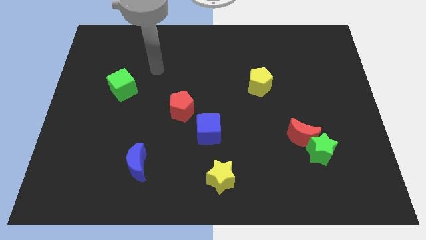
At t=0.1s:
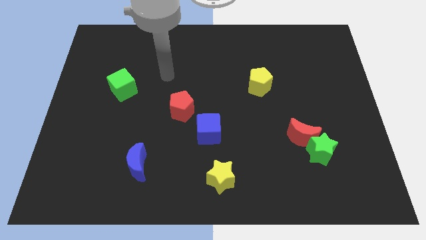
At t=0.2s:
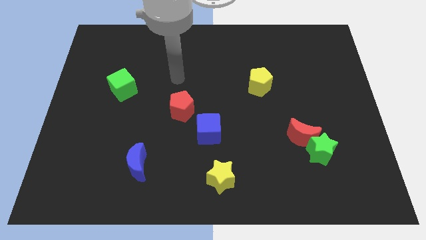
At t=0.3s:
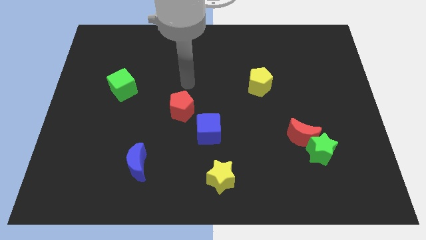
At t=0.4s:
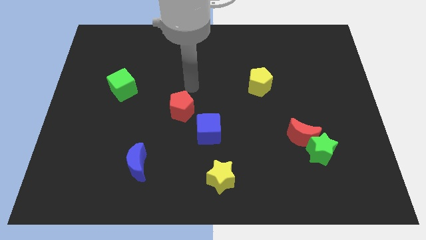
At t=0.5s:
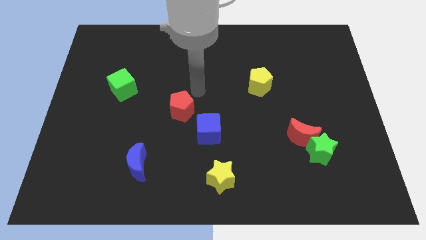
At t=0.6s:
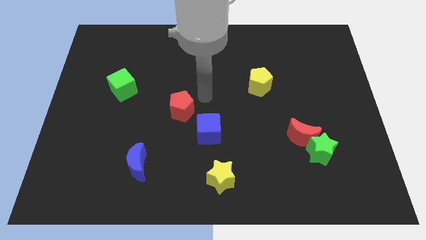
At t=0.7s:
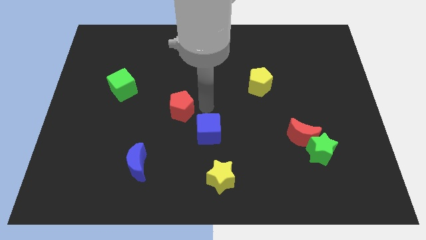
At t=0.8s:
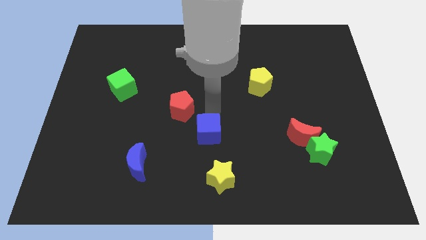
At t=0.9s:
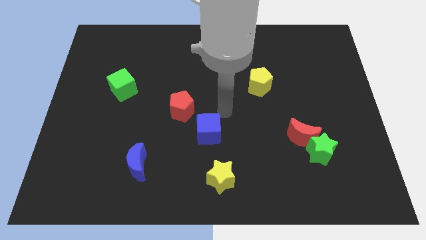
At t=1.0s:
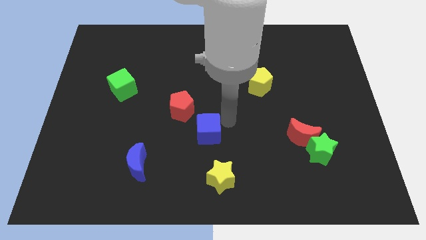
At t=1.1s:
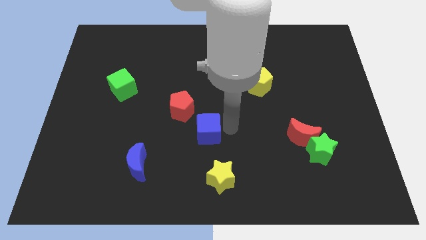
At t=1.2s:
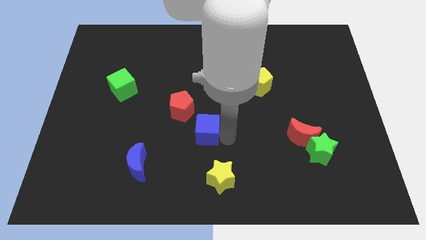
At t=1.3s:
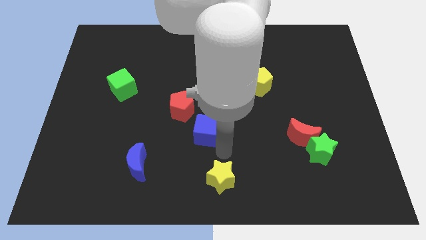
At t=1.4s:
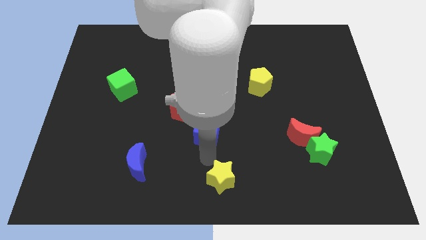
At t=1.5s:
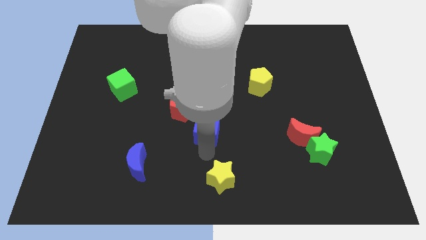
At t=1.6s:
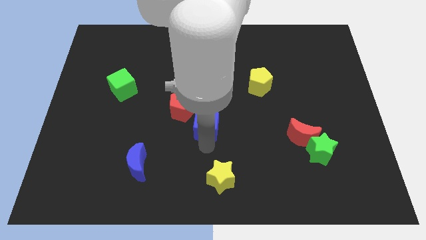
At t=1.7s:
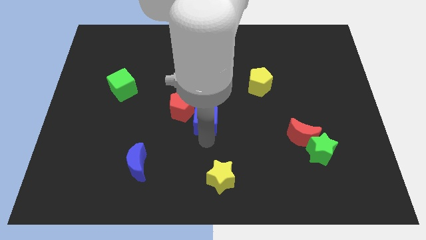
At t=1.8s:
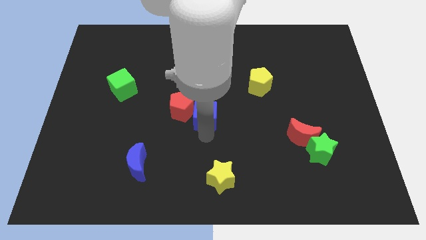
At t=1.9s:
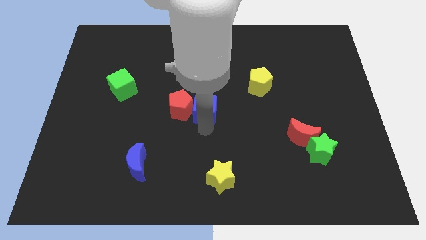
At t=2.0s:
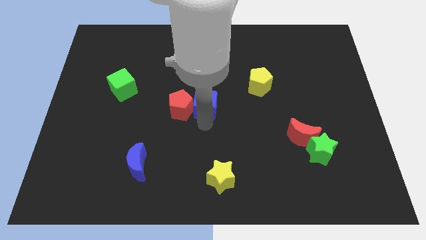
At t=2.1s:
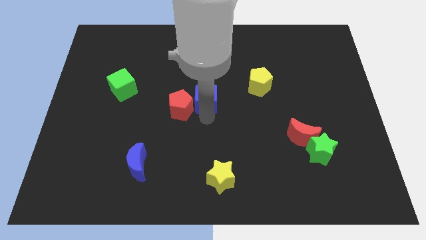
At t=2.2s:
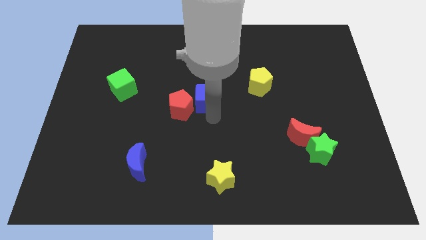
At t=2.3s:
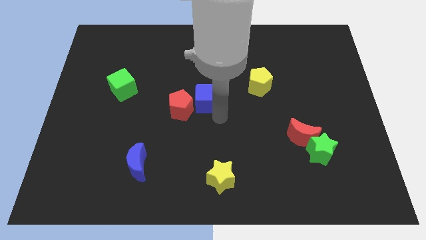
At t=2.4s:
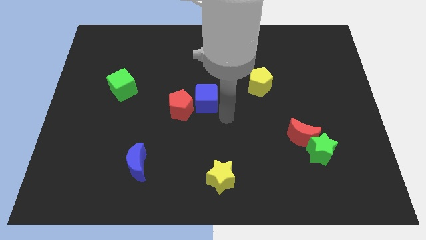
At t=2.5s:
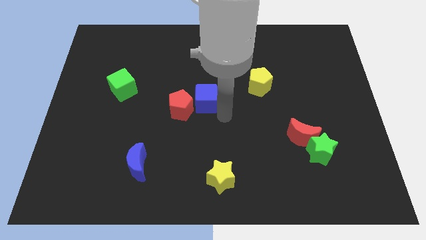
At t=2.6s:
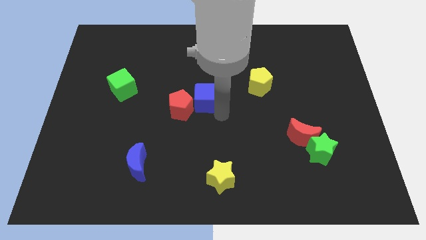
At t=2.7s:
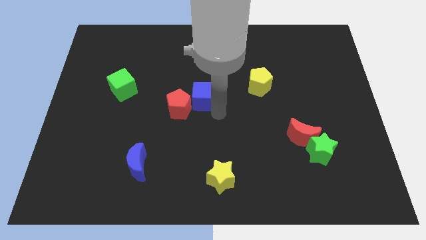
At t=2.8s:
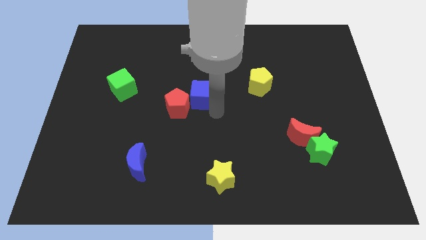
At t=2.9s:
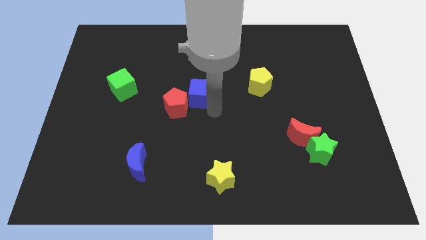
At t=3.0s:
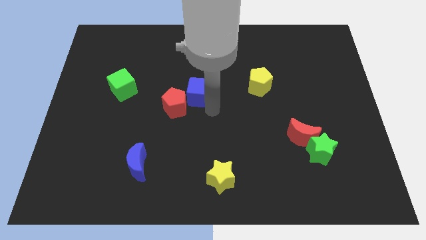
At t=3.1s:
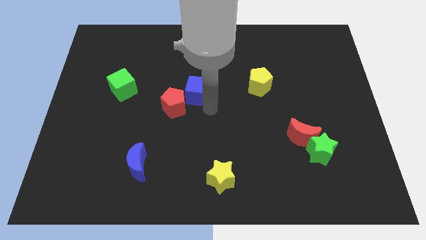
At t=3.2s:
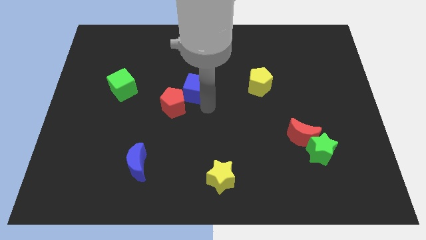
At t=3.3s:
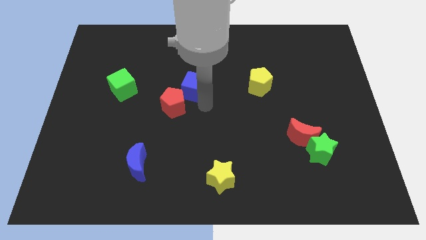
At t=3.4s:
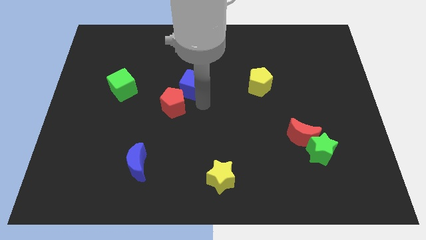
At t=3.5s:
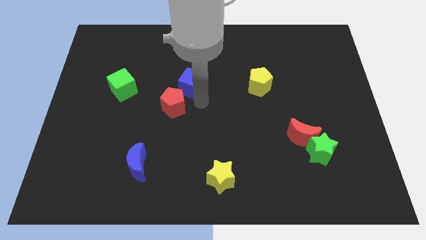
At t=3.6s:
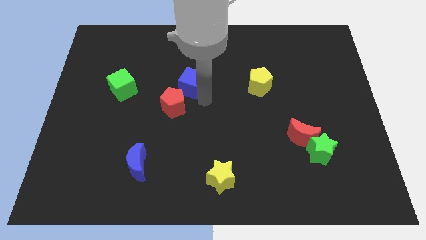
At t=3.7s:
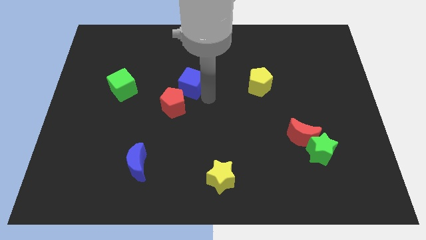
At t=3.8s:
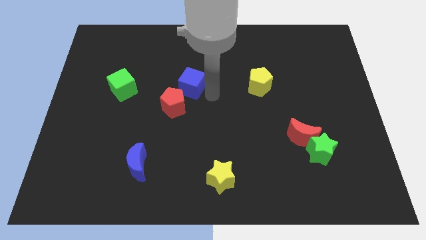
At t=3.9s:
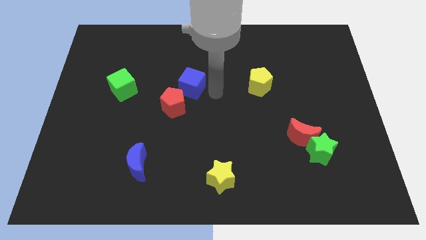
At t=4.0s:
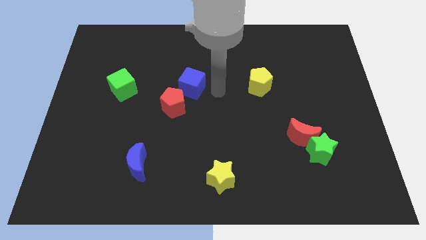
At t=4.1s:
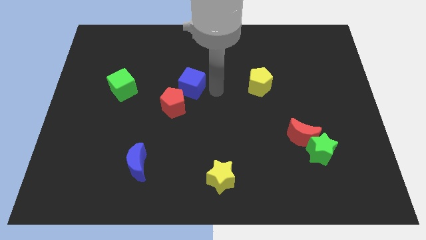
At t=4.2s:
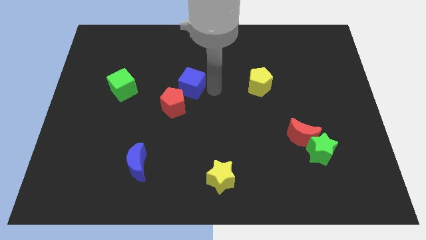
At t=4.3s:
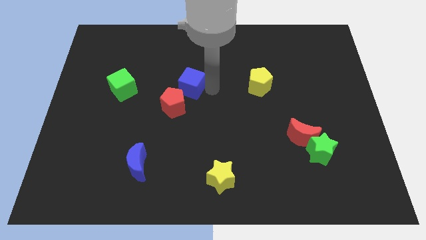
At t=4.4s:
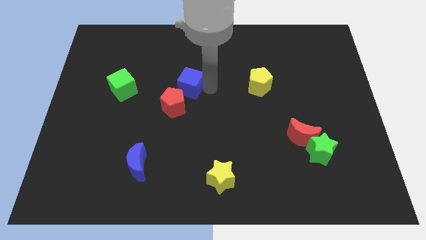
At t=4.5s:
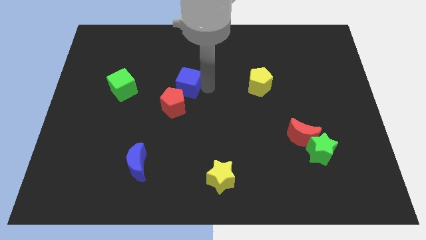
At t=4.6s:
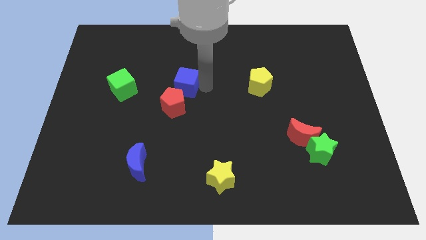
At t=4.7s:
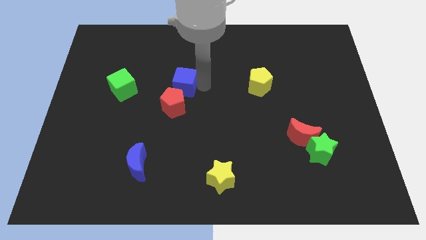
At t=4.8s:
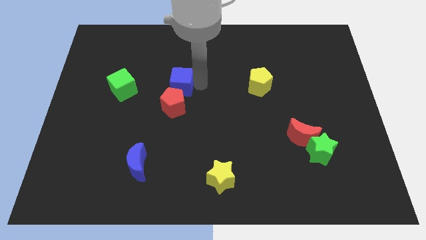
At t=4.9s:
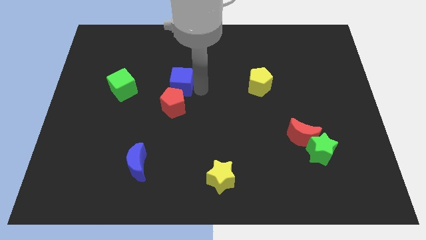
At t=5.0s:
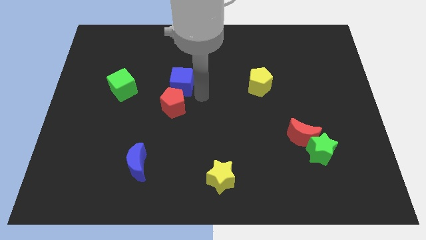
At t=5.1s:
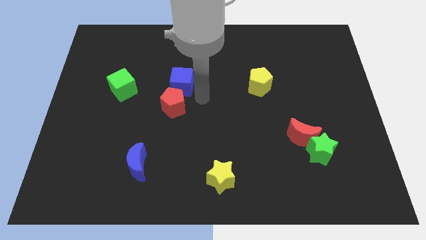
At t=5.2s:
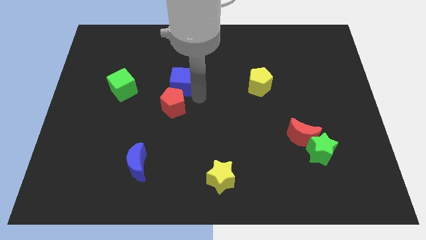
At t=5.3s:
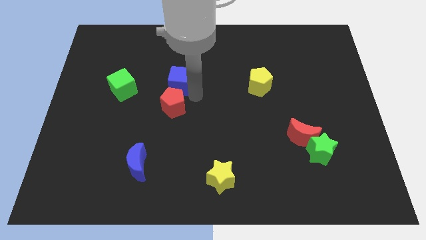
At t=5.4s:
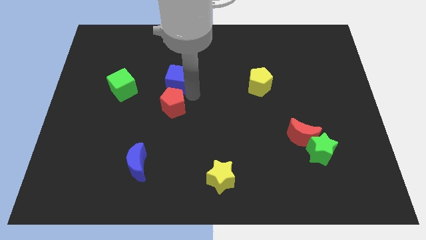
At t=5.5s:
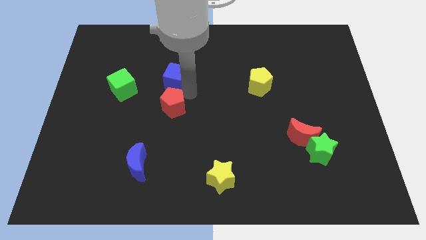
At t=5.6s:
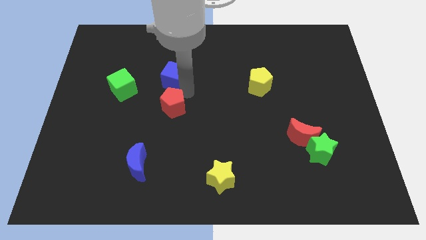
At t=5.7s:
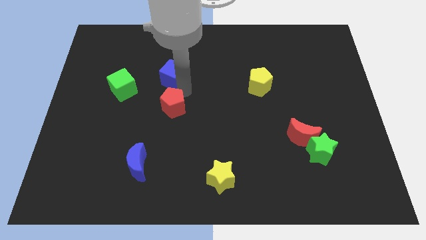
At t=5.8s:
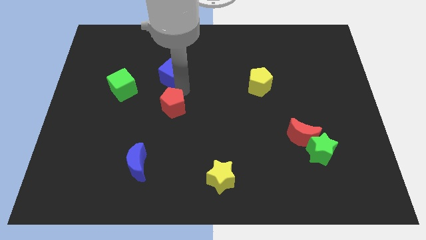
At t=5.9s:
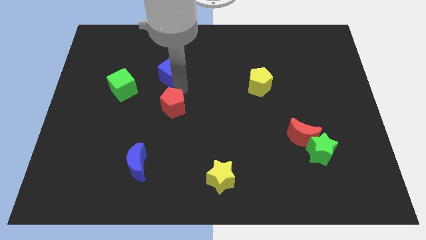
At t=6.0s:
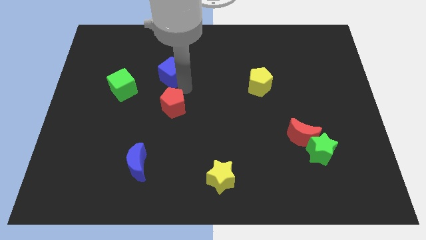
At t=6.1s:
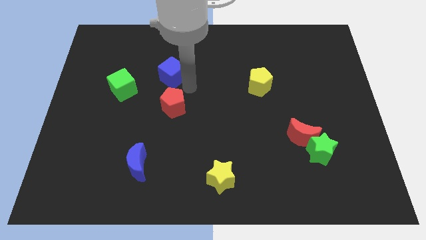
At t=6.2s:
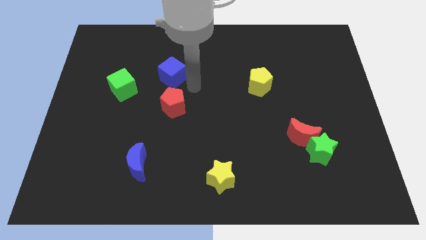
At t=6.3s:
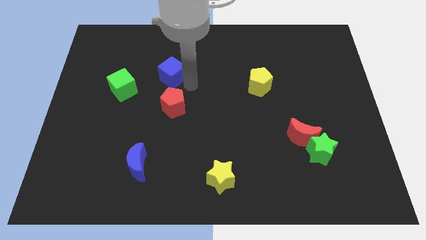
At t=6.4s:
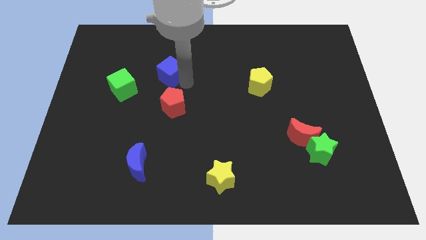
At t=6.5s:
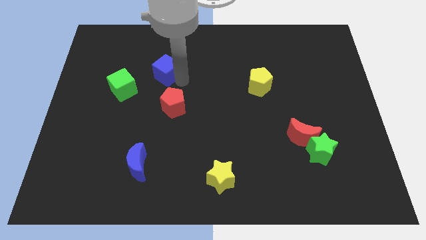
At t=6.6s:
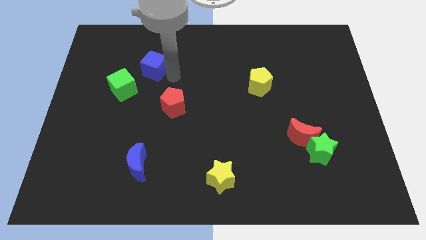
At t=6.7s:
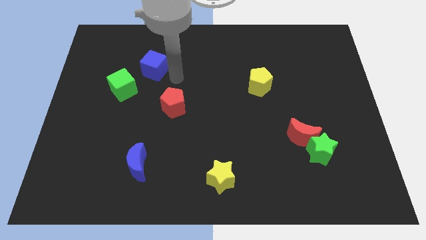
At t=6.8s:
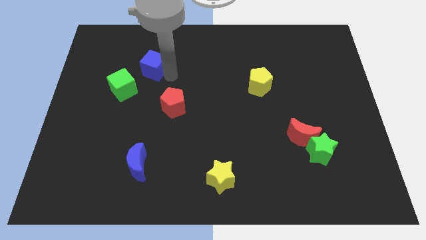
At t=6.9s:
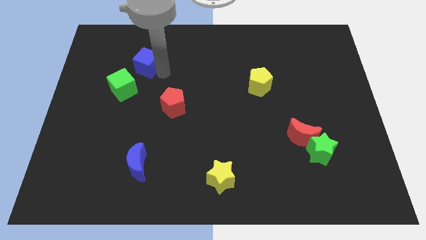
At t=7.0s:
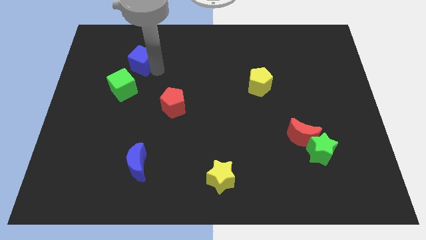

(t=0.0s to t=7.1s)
push the blue cube to the top of the green cube
